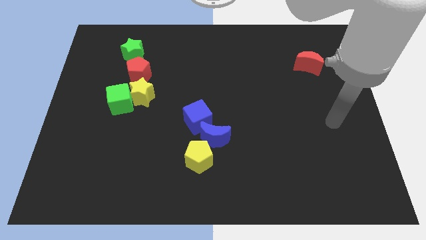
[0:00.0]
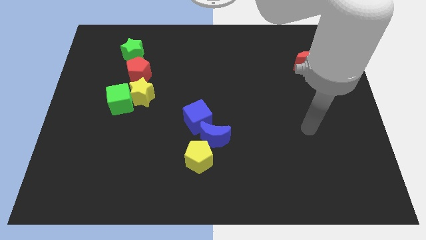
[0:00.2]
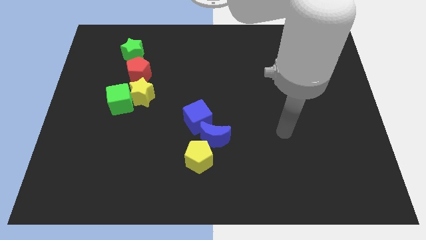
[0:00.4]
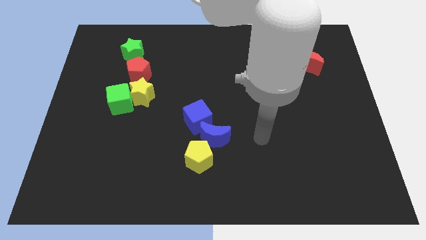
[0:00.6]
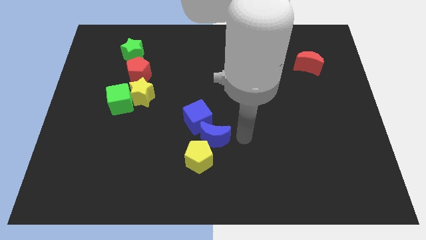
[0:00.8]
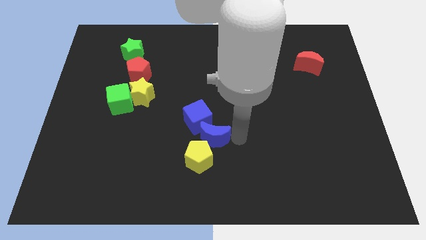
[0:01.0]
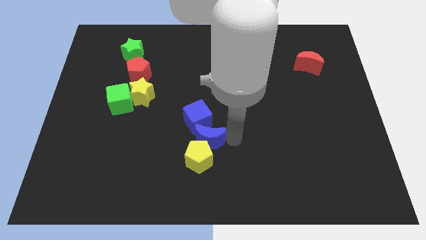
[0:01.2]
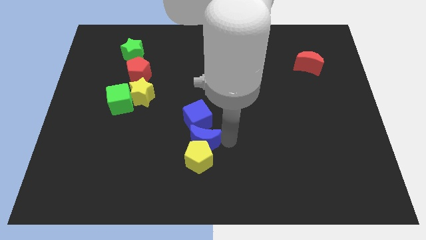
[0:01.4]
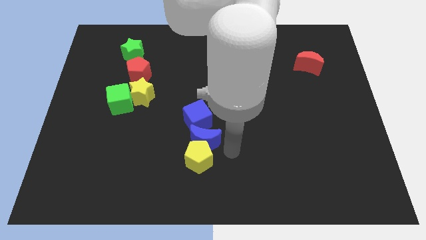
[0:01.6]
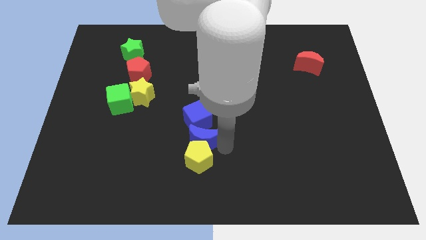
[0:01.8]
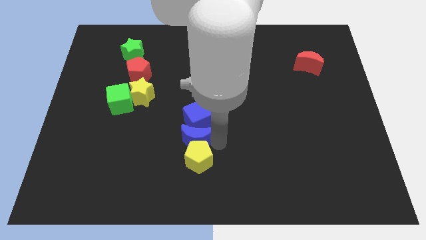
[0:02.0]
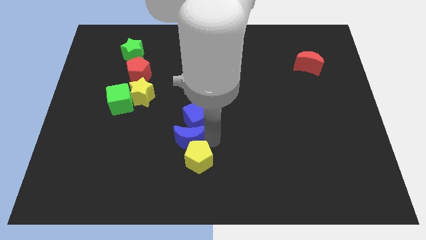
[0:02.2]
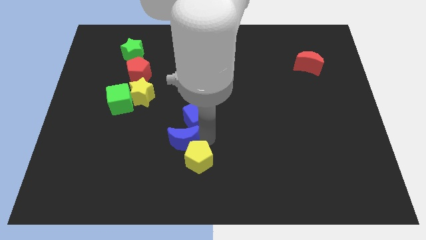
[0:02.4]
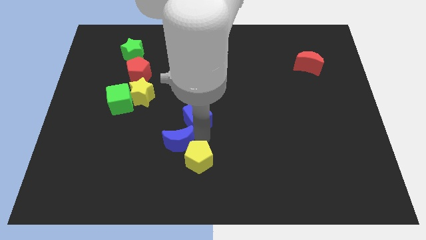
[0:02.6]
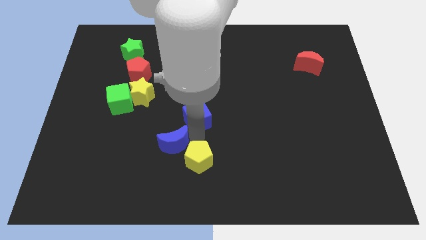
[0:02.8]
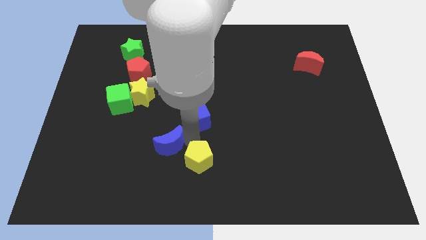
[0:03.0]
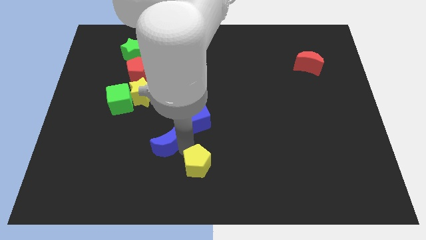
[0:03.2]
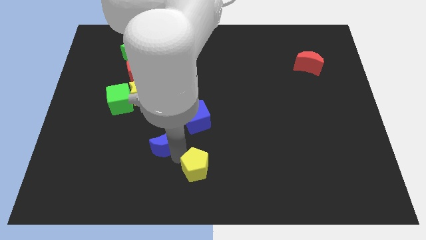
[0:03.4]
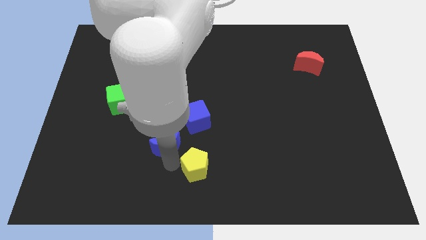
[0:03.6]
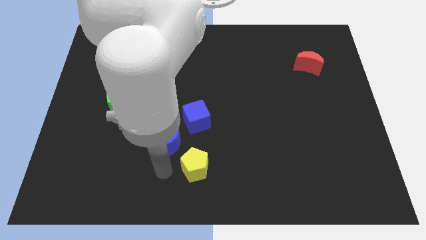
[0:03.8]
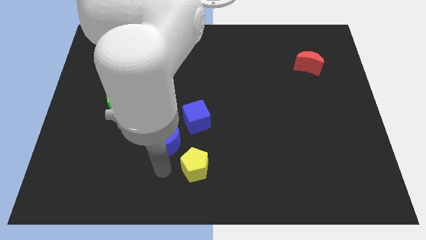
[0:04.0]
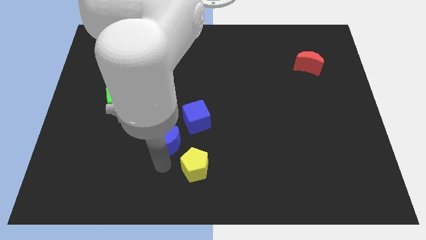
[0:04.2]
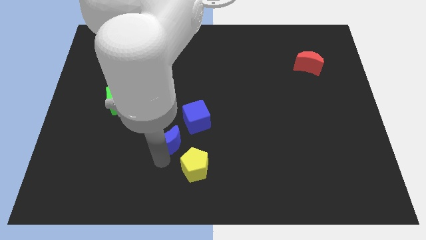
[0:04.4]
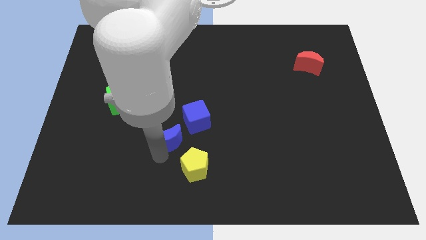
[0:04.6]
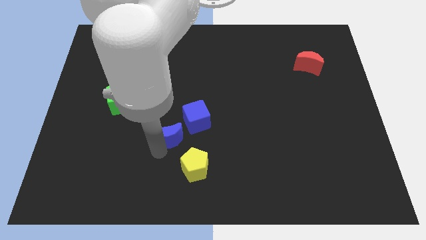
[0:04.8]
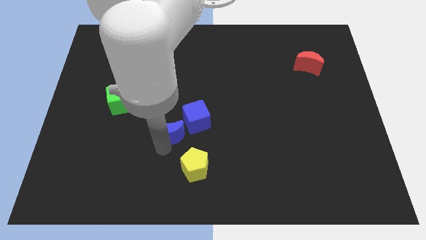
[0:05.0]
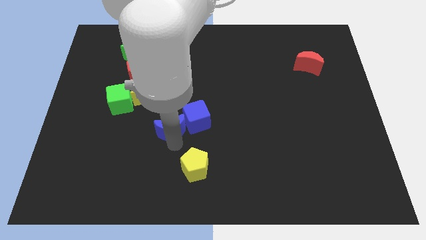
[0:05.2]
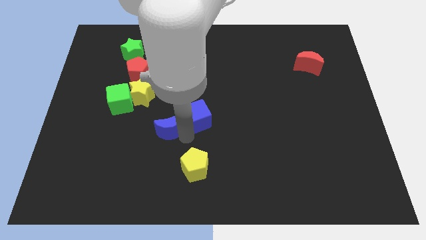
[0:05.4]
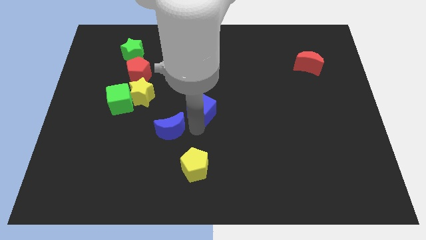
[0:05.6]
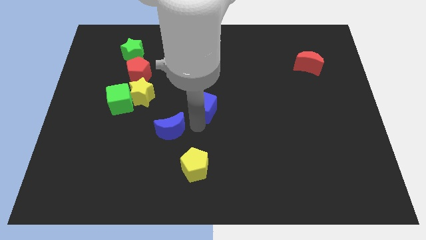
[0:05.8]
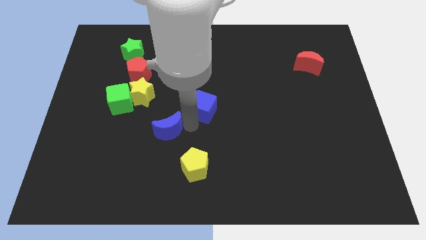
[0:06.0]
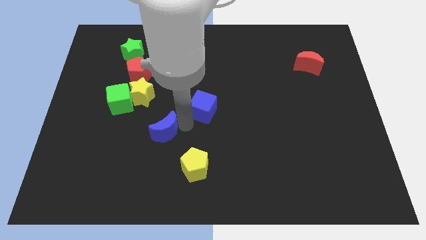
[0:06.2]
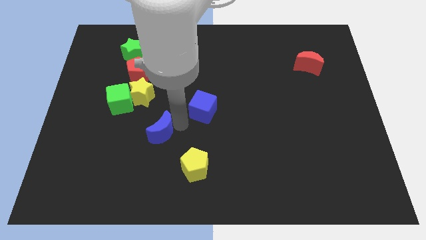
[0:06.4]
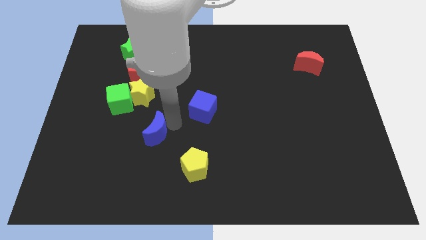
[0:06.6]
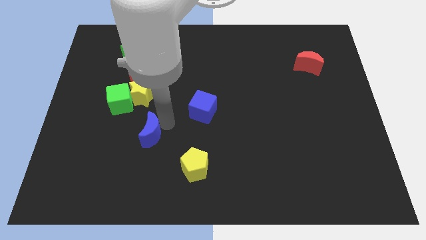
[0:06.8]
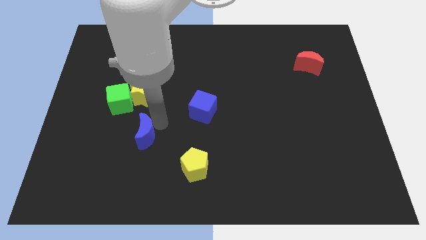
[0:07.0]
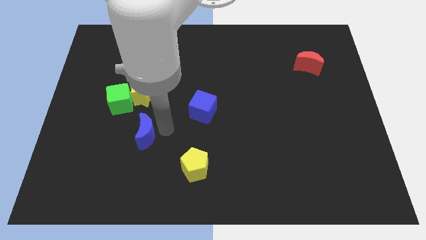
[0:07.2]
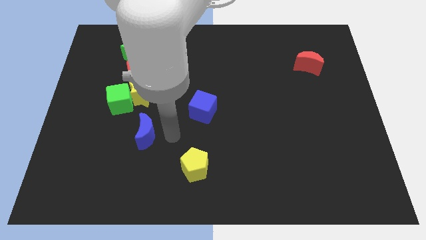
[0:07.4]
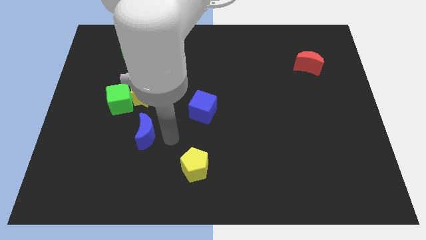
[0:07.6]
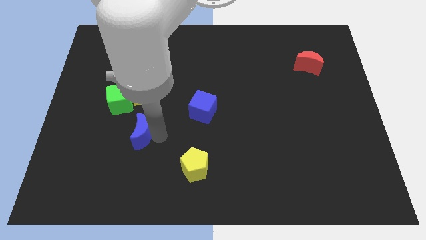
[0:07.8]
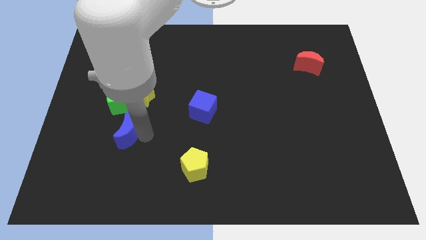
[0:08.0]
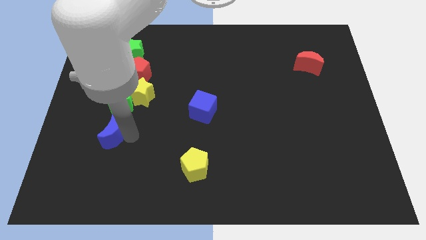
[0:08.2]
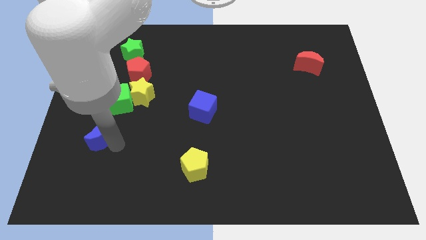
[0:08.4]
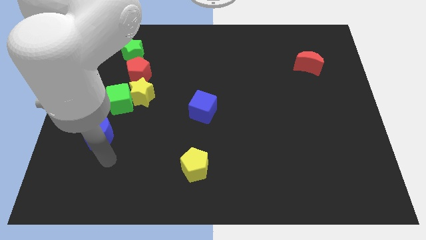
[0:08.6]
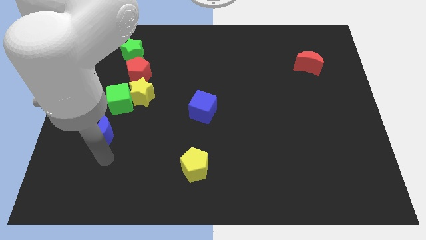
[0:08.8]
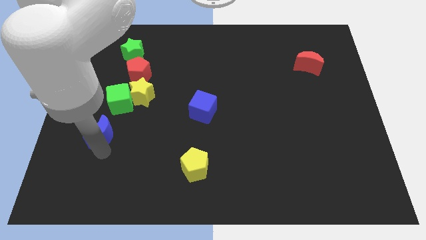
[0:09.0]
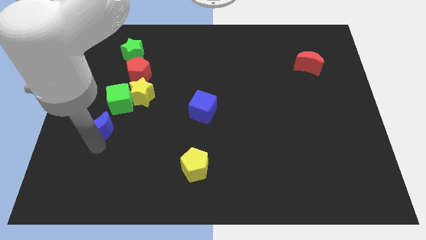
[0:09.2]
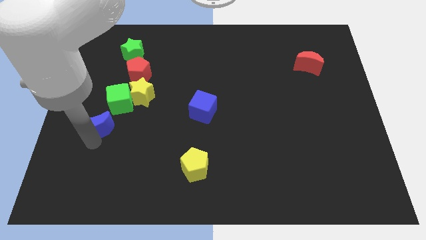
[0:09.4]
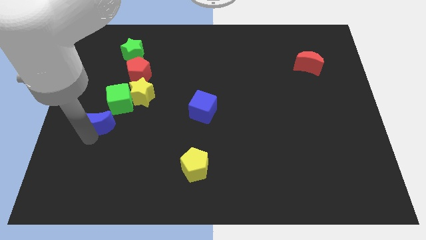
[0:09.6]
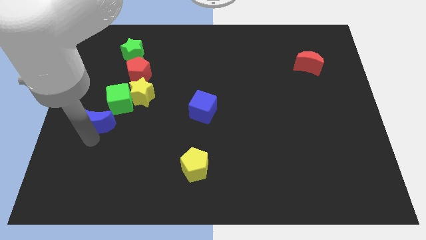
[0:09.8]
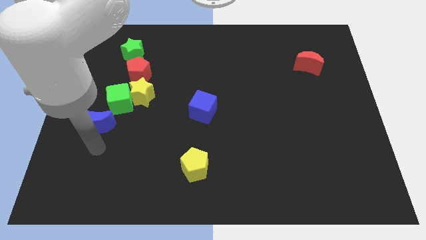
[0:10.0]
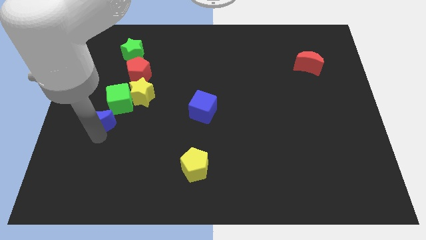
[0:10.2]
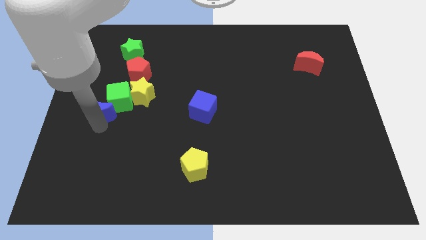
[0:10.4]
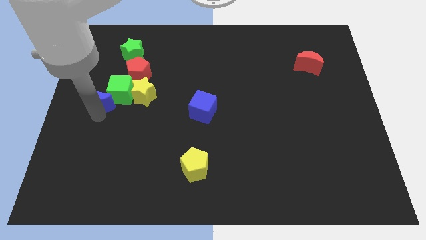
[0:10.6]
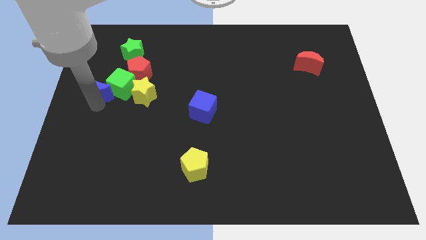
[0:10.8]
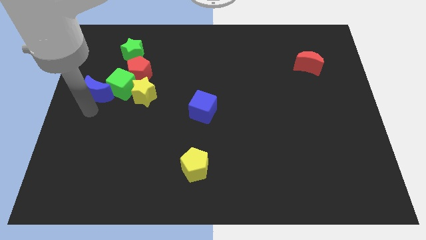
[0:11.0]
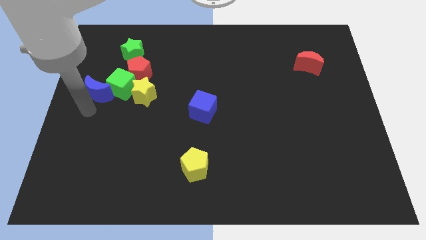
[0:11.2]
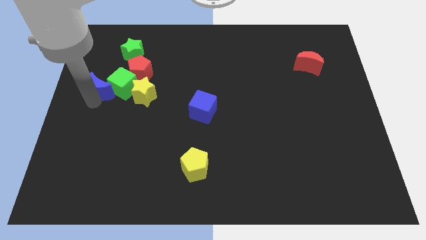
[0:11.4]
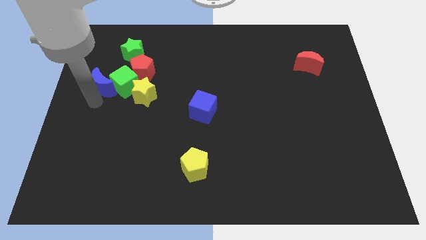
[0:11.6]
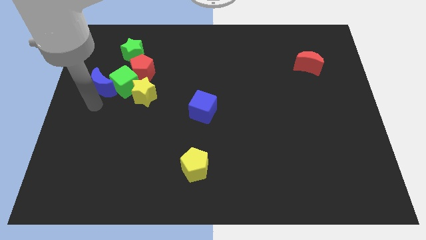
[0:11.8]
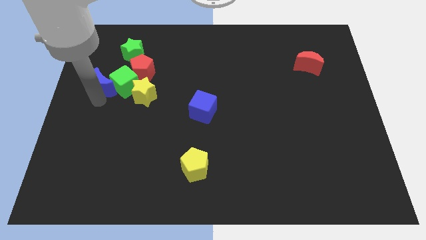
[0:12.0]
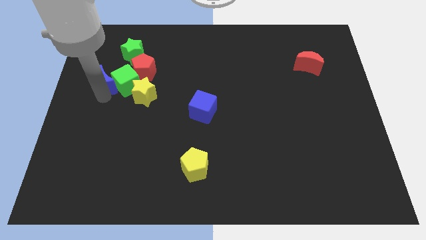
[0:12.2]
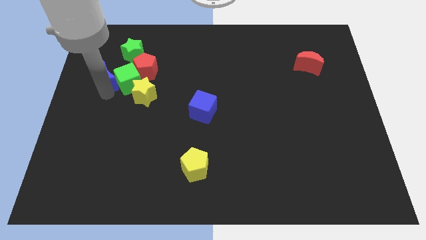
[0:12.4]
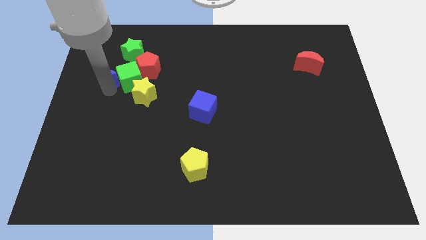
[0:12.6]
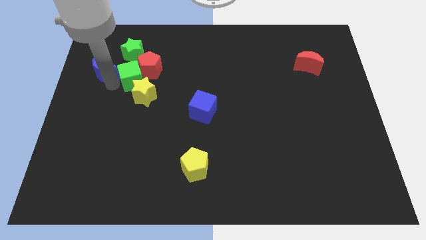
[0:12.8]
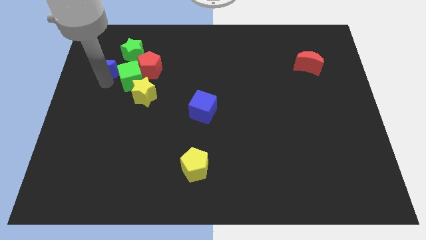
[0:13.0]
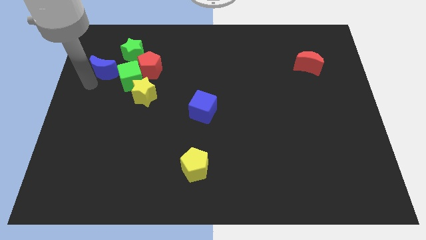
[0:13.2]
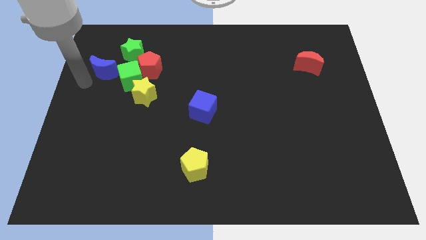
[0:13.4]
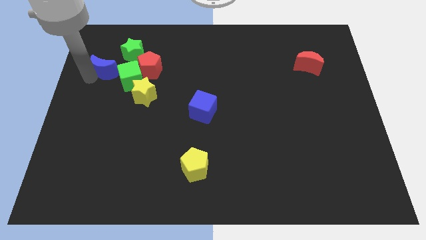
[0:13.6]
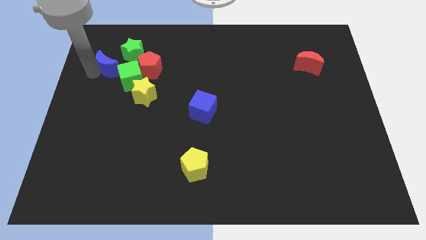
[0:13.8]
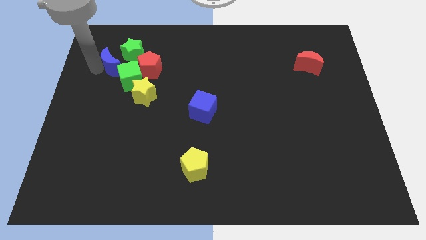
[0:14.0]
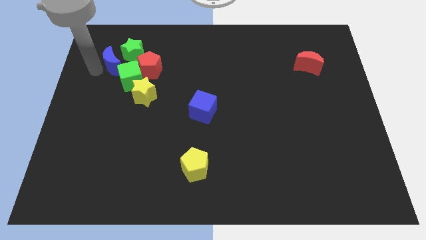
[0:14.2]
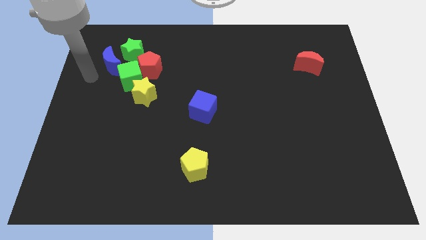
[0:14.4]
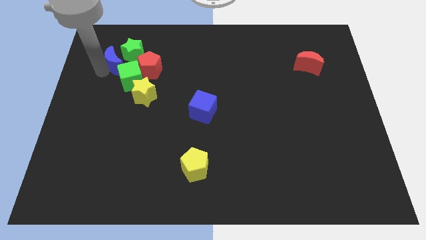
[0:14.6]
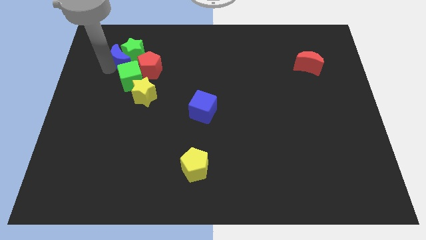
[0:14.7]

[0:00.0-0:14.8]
move the blue moon to the top left of the red pentagon

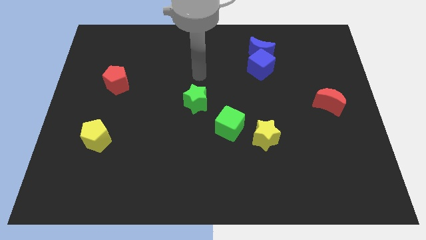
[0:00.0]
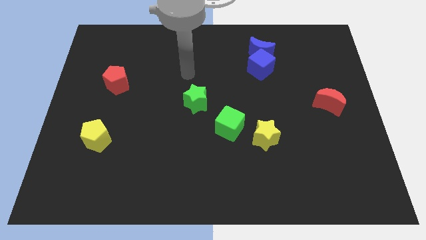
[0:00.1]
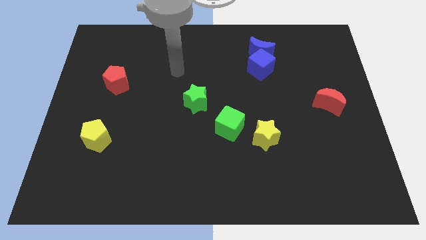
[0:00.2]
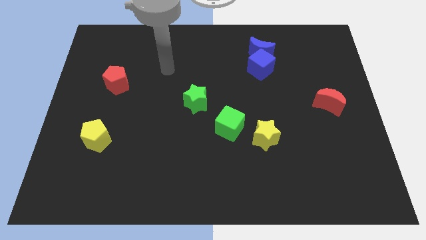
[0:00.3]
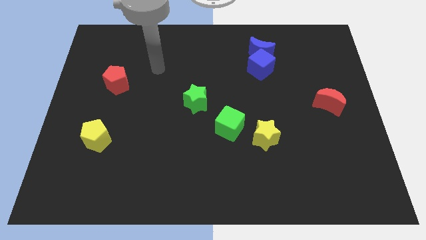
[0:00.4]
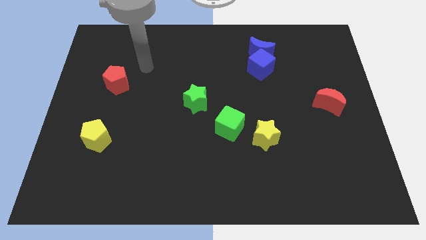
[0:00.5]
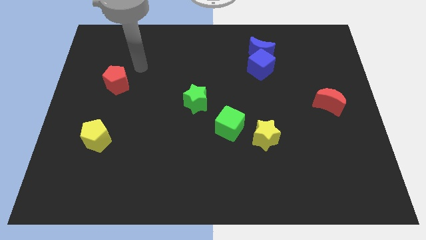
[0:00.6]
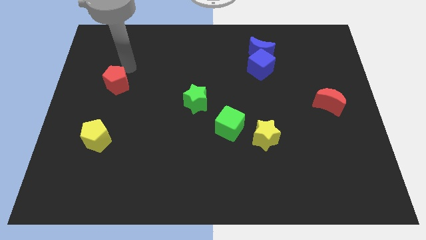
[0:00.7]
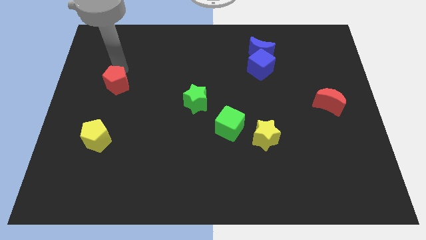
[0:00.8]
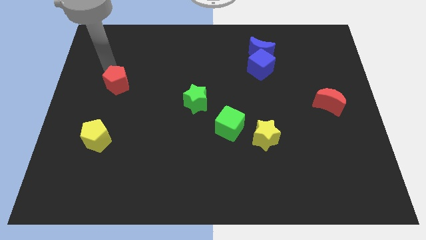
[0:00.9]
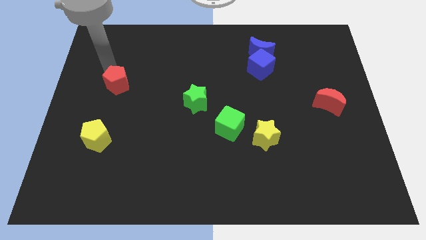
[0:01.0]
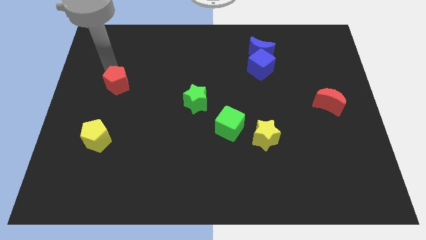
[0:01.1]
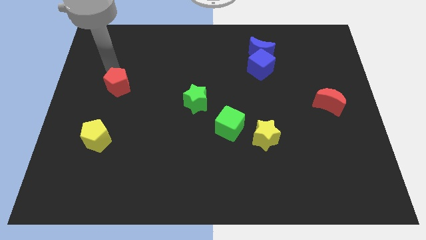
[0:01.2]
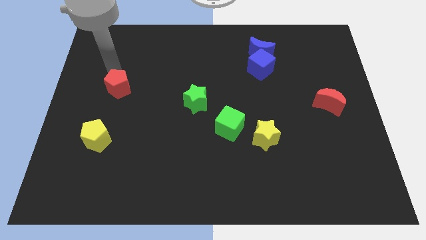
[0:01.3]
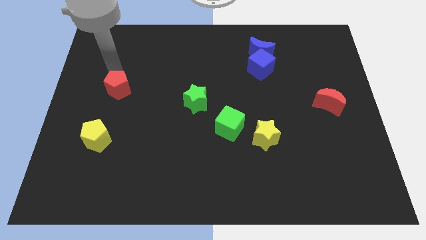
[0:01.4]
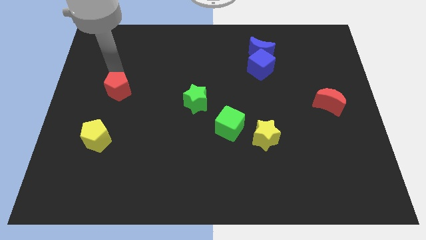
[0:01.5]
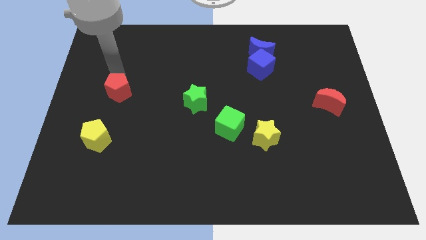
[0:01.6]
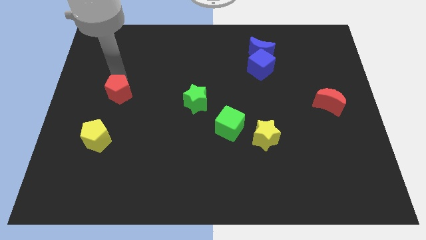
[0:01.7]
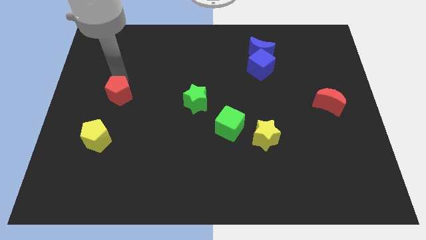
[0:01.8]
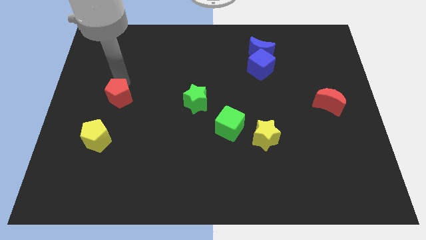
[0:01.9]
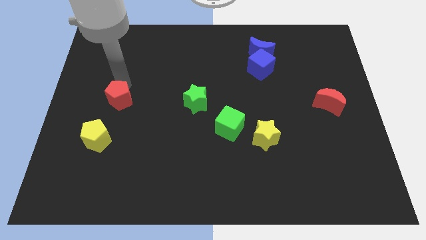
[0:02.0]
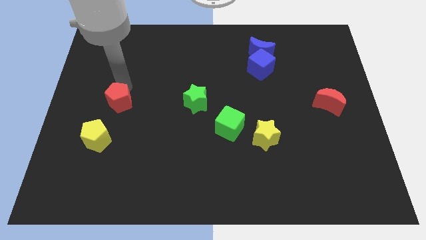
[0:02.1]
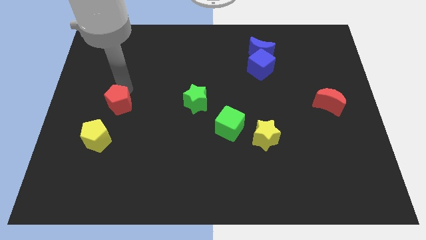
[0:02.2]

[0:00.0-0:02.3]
push the red pentagon diagonally up and to the right of the yellow pentagon
